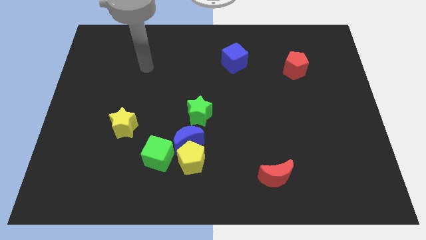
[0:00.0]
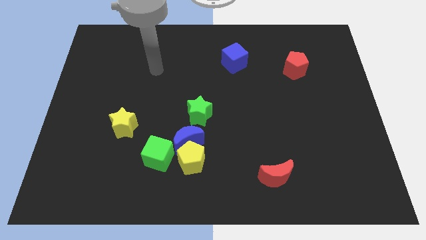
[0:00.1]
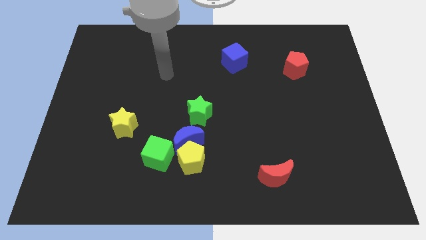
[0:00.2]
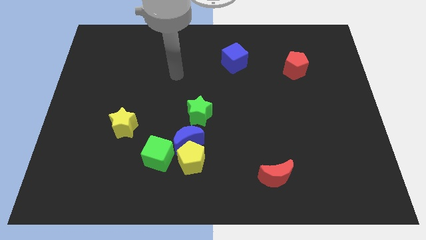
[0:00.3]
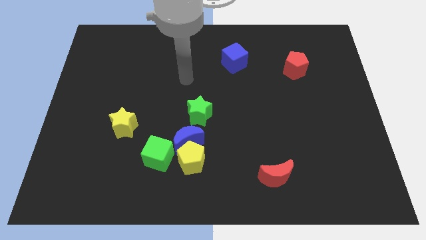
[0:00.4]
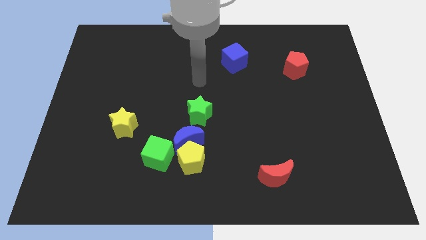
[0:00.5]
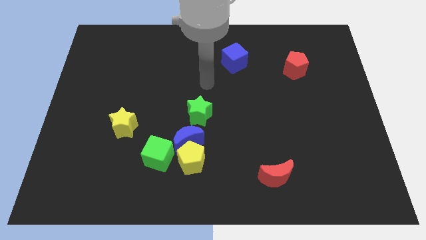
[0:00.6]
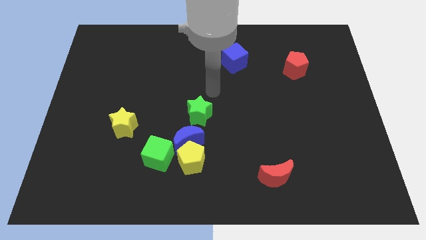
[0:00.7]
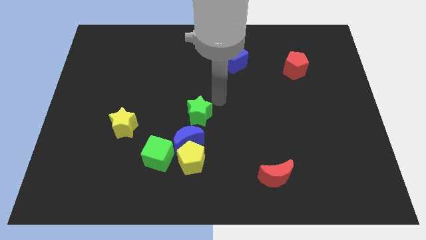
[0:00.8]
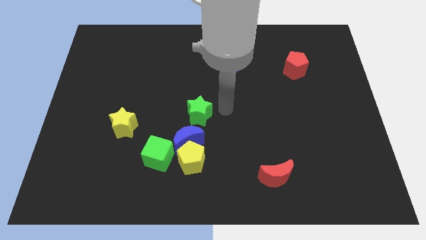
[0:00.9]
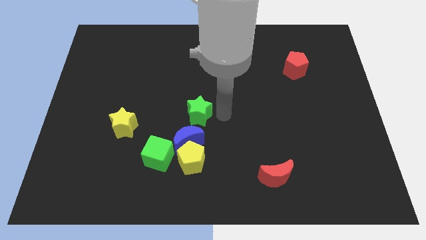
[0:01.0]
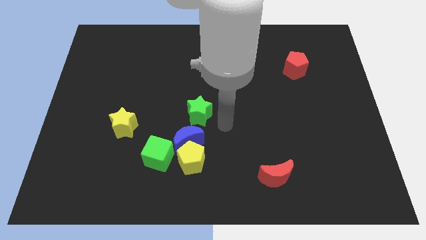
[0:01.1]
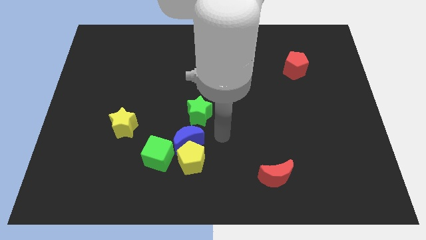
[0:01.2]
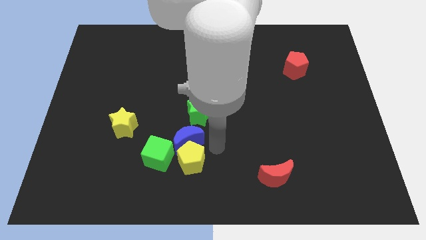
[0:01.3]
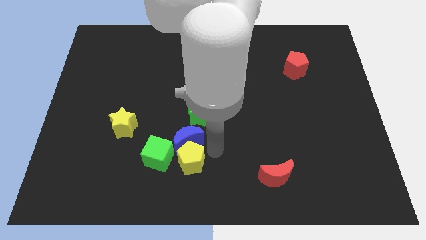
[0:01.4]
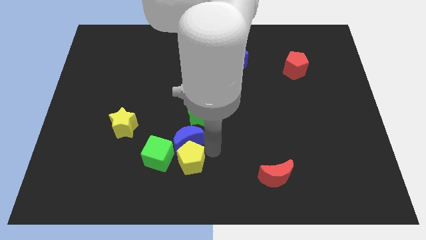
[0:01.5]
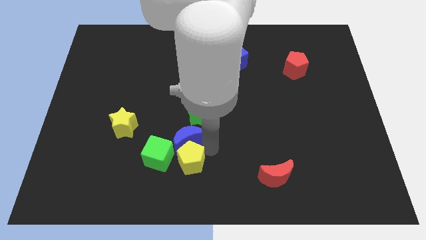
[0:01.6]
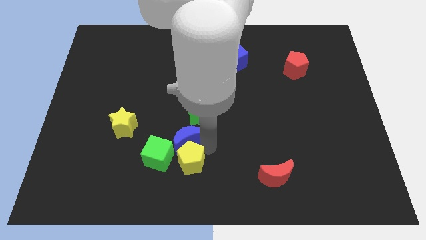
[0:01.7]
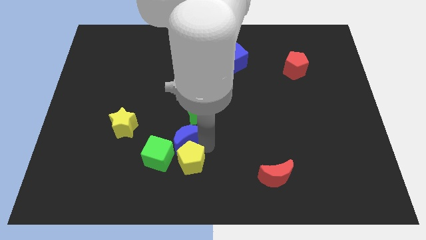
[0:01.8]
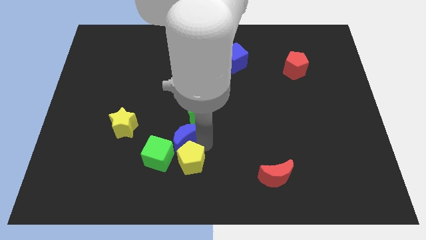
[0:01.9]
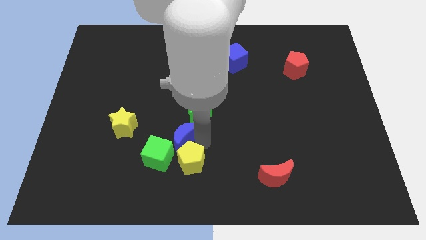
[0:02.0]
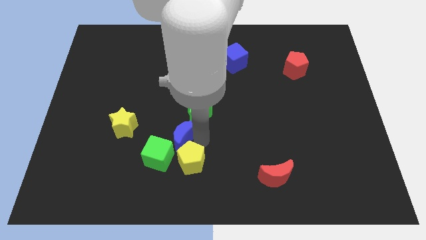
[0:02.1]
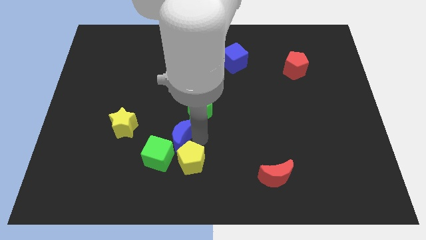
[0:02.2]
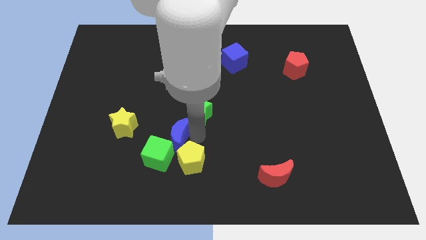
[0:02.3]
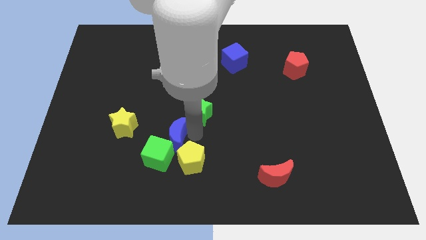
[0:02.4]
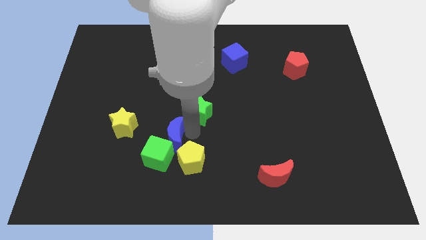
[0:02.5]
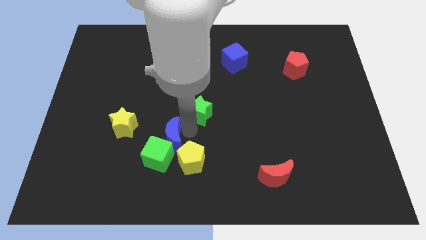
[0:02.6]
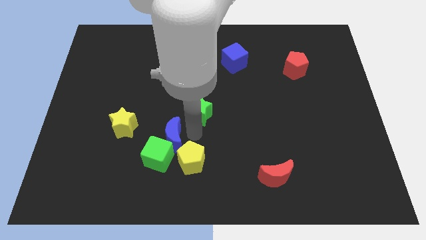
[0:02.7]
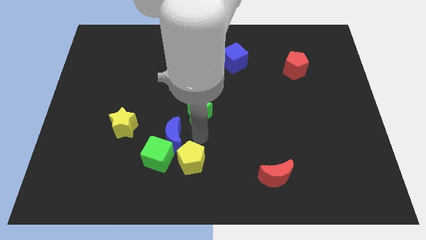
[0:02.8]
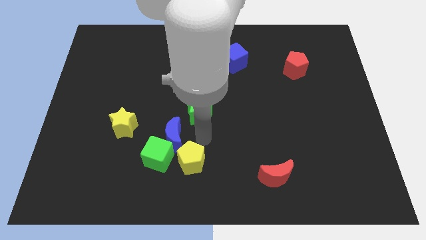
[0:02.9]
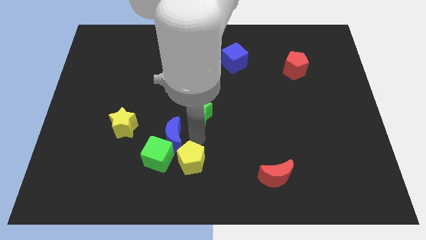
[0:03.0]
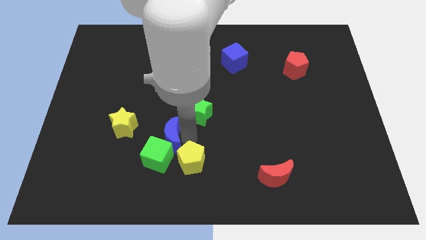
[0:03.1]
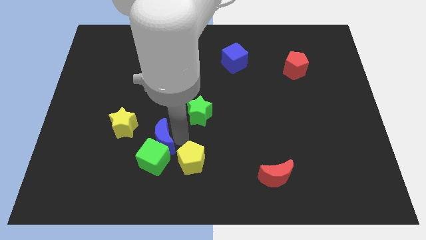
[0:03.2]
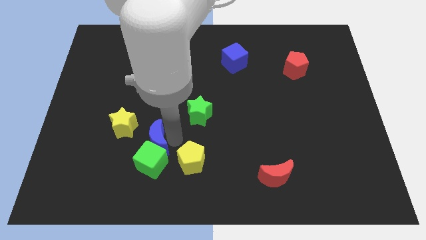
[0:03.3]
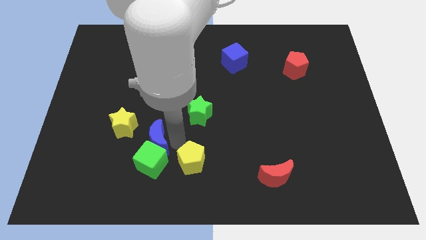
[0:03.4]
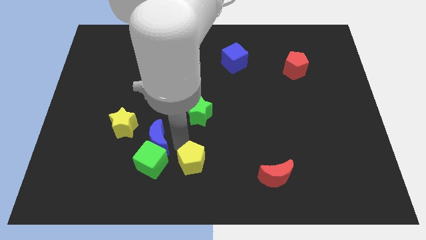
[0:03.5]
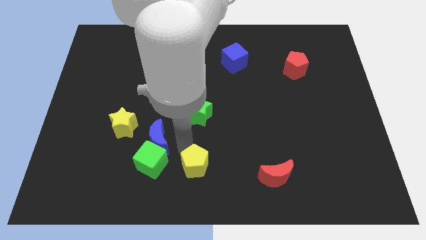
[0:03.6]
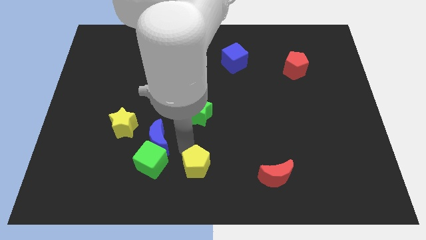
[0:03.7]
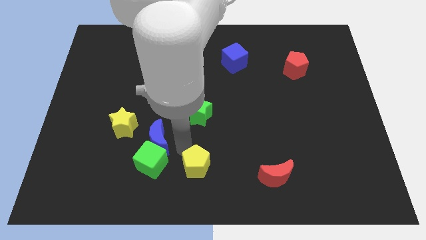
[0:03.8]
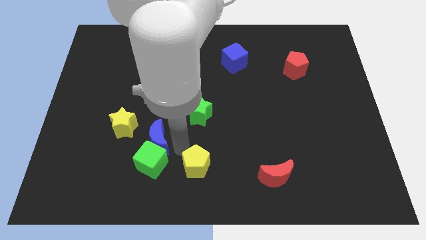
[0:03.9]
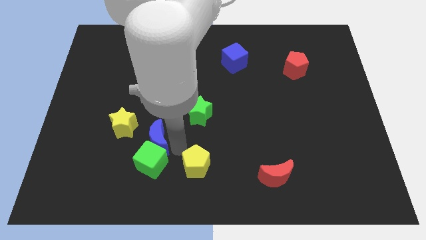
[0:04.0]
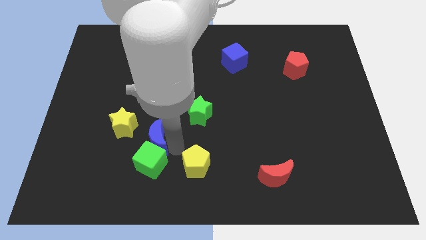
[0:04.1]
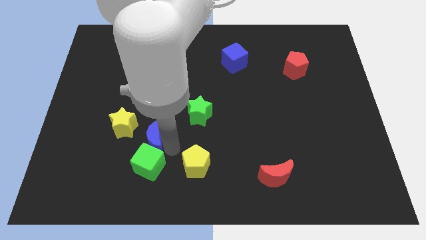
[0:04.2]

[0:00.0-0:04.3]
slightly slide the blue moon to the left

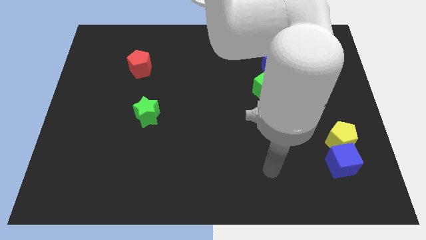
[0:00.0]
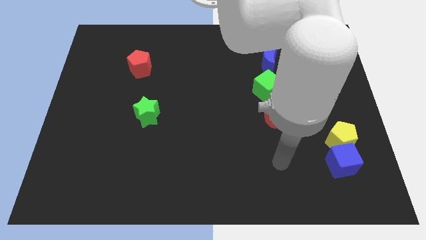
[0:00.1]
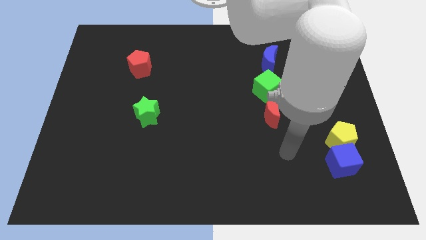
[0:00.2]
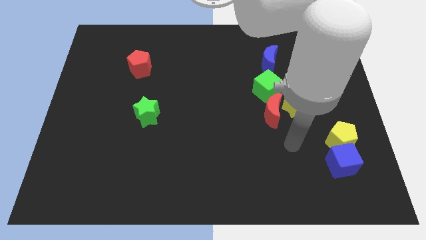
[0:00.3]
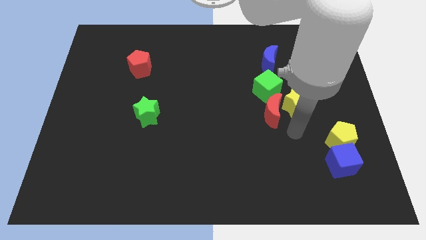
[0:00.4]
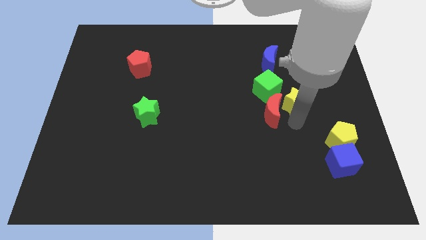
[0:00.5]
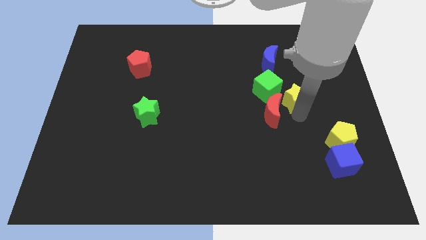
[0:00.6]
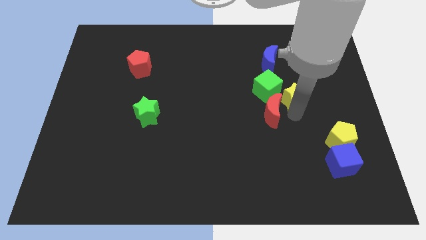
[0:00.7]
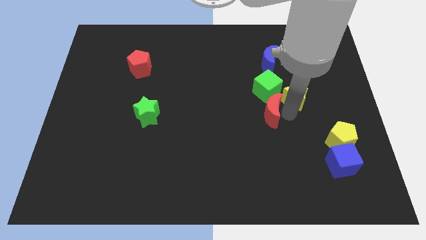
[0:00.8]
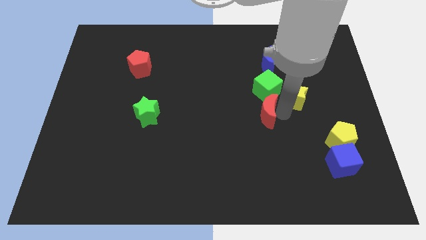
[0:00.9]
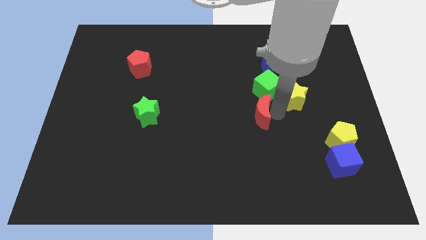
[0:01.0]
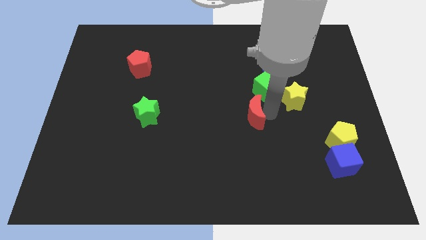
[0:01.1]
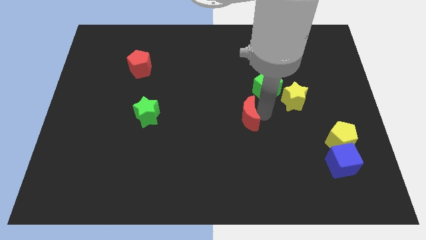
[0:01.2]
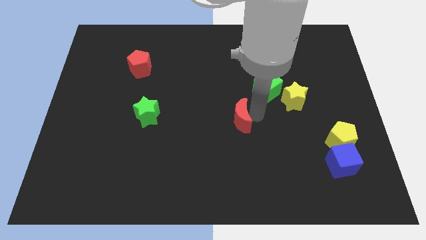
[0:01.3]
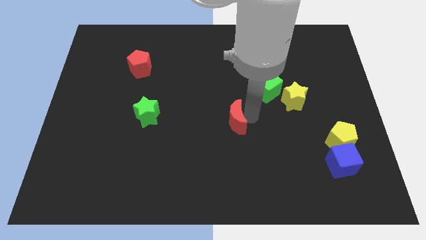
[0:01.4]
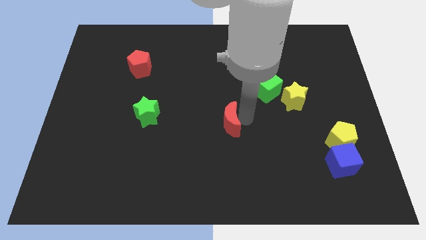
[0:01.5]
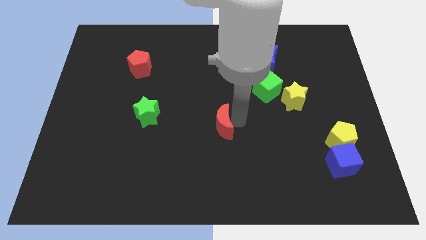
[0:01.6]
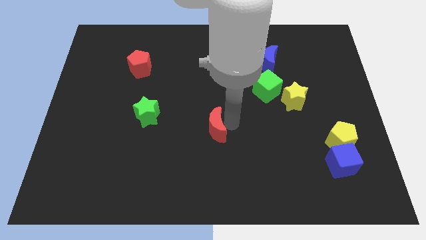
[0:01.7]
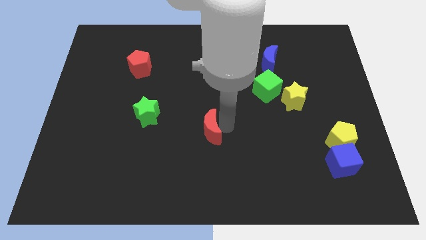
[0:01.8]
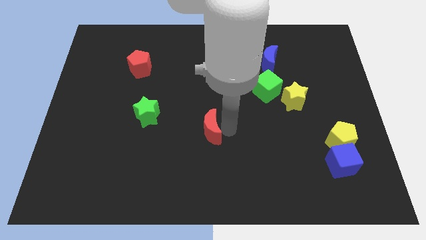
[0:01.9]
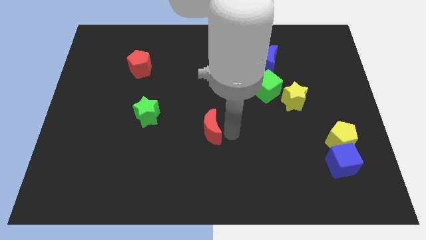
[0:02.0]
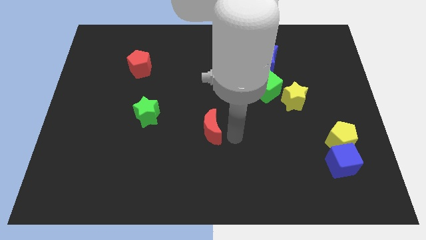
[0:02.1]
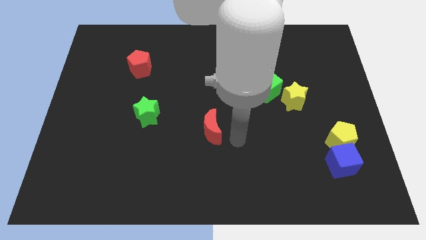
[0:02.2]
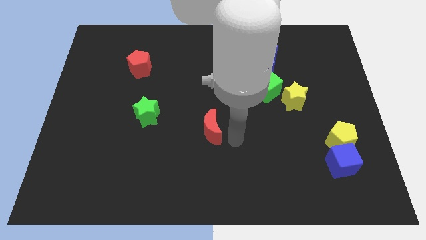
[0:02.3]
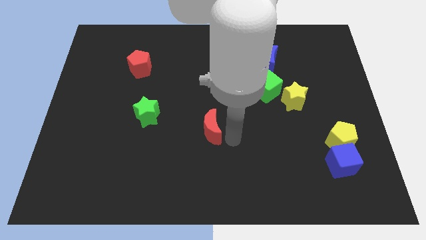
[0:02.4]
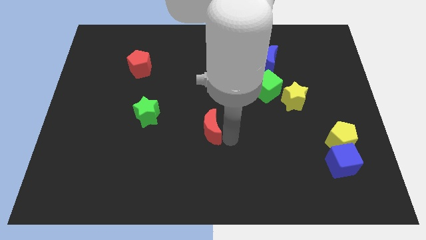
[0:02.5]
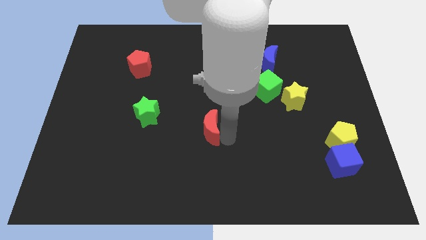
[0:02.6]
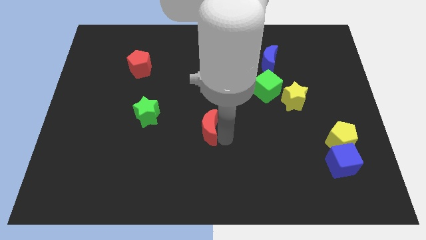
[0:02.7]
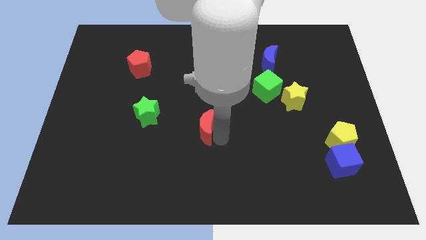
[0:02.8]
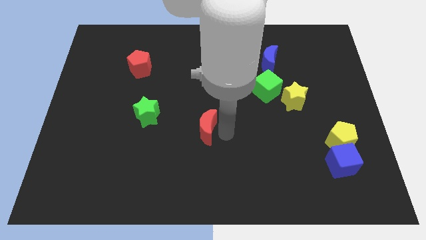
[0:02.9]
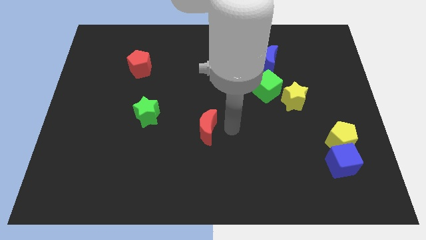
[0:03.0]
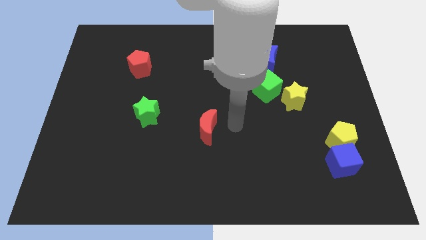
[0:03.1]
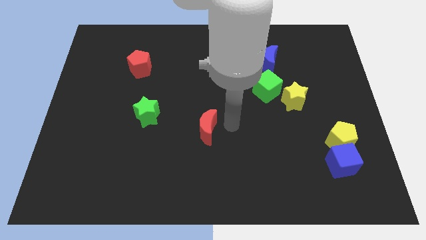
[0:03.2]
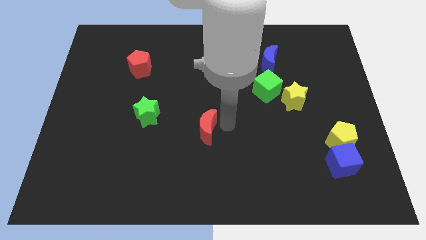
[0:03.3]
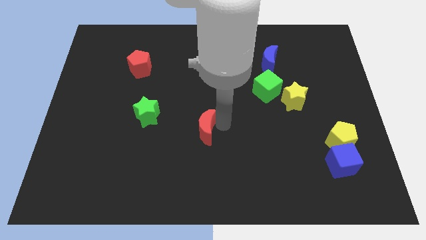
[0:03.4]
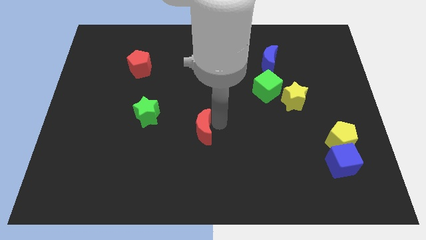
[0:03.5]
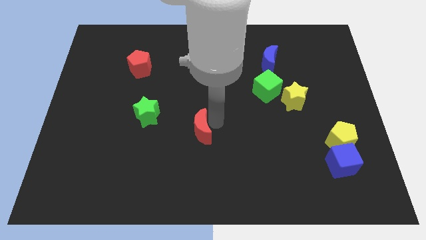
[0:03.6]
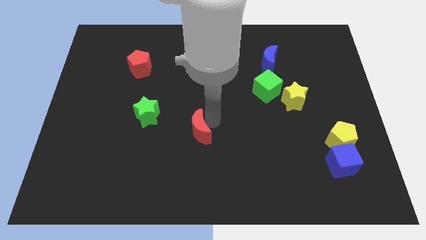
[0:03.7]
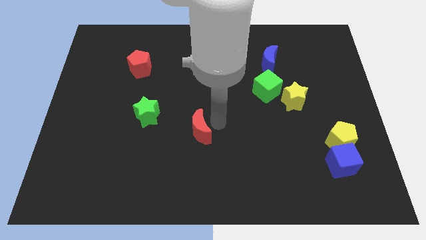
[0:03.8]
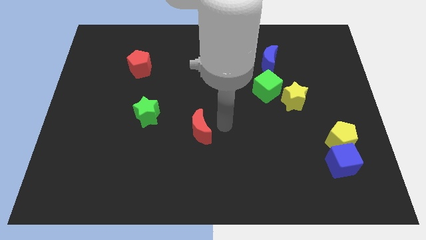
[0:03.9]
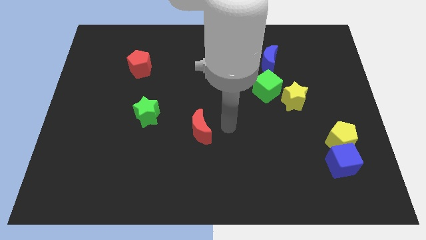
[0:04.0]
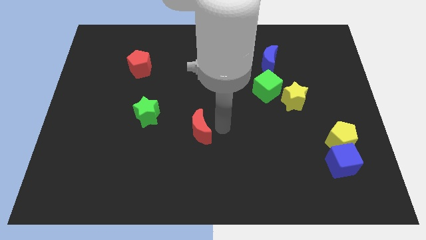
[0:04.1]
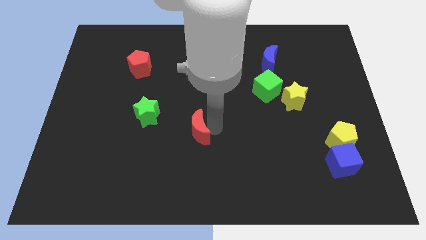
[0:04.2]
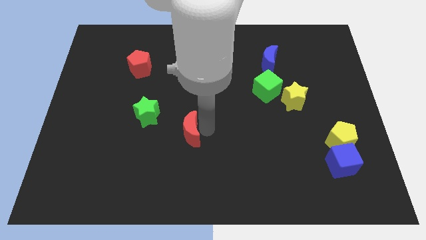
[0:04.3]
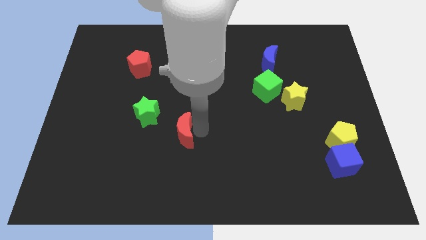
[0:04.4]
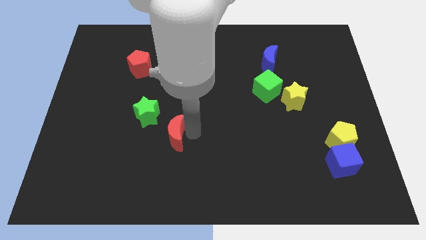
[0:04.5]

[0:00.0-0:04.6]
slide the red moon to the left
